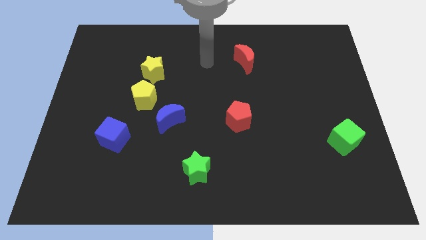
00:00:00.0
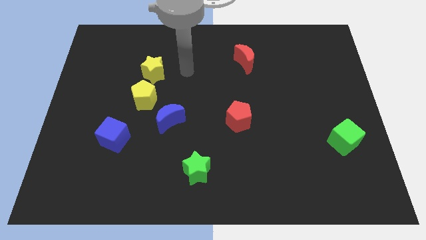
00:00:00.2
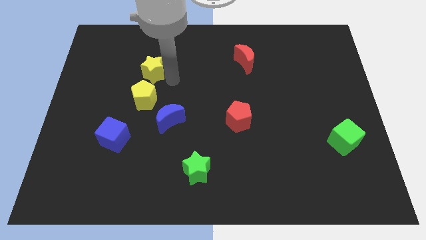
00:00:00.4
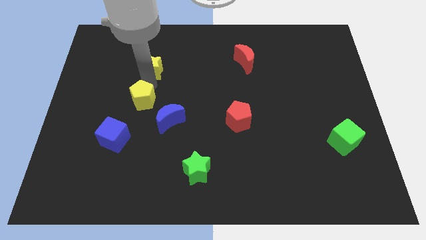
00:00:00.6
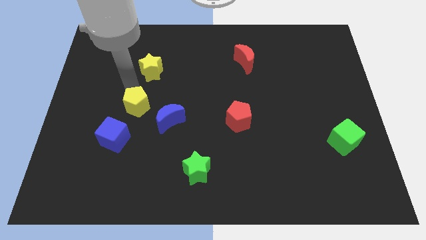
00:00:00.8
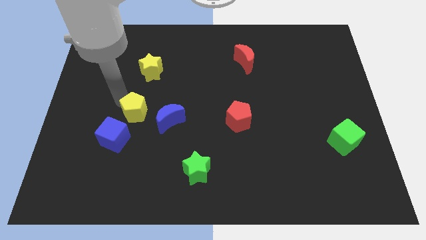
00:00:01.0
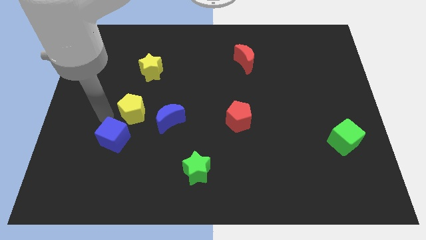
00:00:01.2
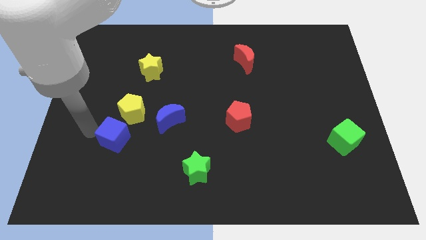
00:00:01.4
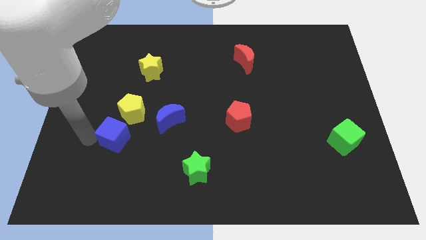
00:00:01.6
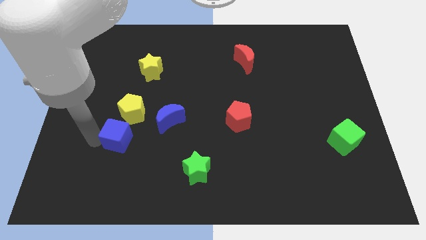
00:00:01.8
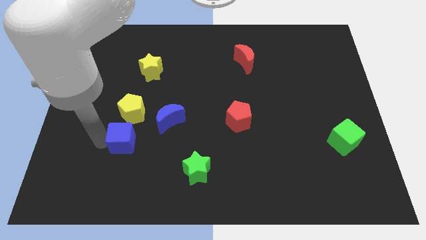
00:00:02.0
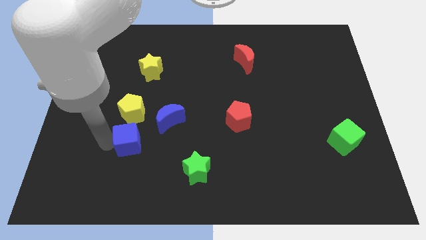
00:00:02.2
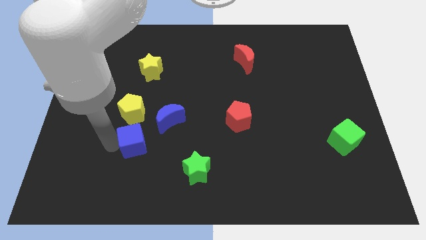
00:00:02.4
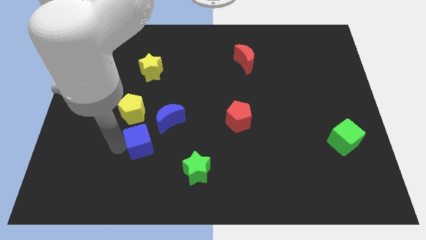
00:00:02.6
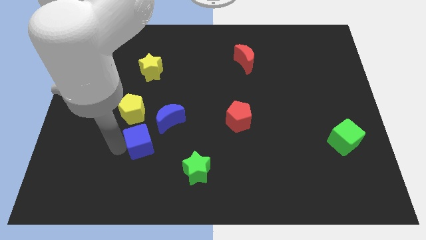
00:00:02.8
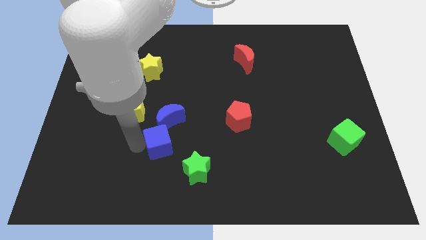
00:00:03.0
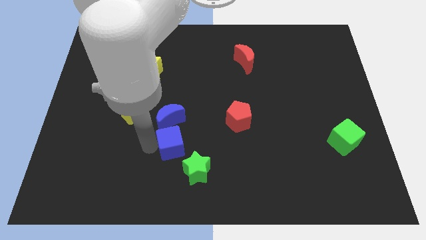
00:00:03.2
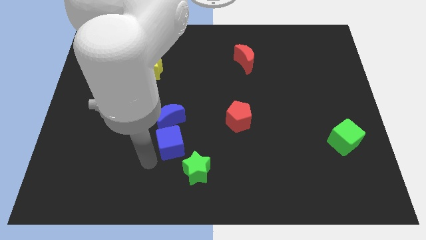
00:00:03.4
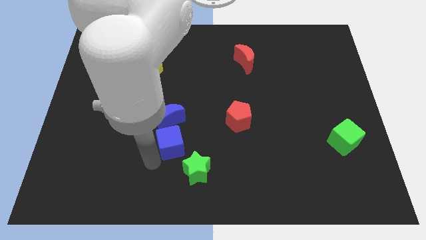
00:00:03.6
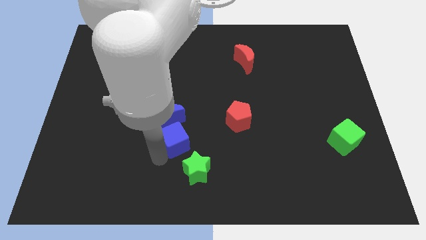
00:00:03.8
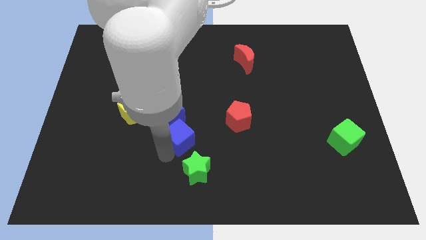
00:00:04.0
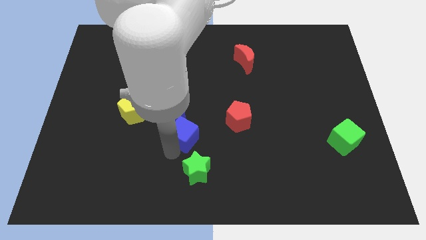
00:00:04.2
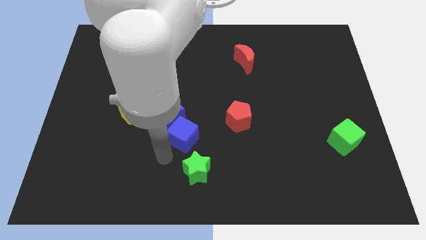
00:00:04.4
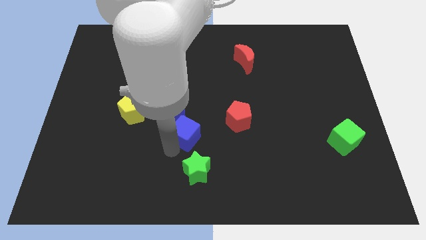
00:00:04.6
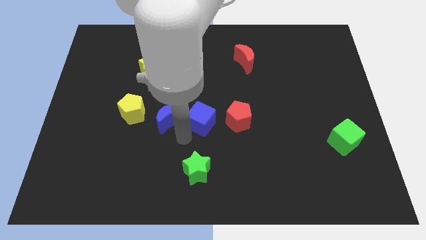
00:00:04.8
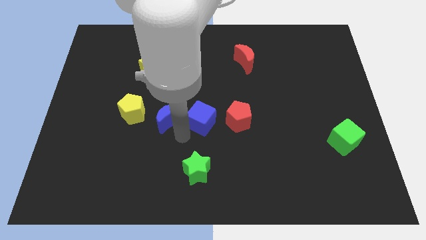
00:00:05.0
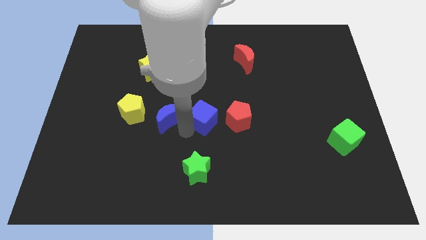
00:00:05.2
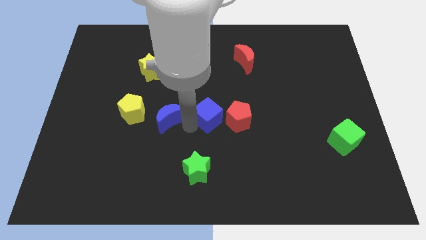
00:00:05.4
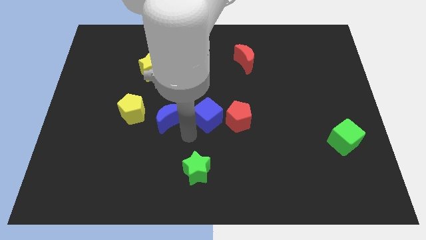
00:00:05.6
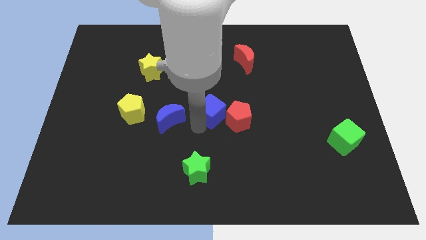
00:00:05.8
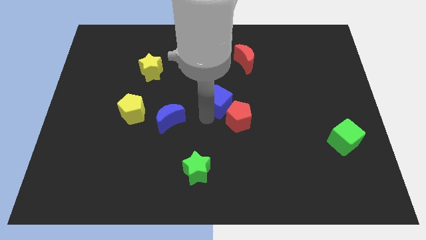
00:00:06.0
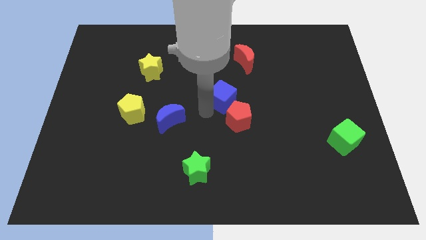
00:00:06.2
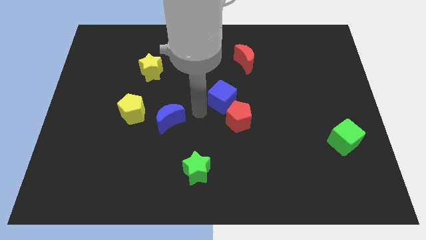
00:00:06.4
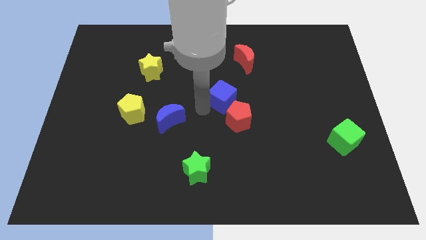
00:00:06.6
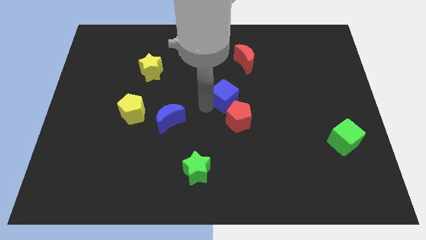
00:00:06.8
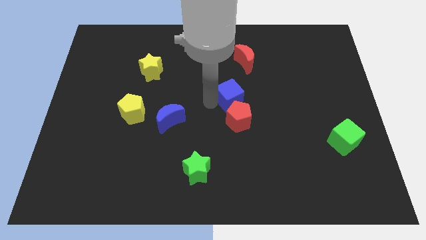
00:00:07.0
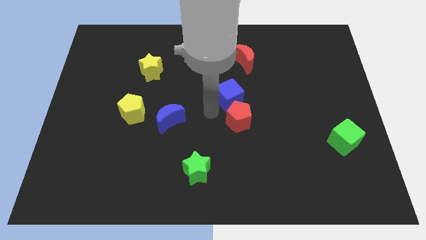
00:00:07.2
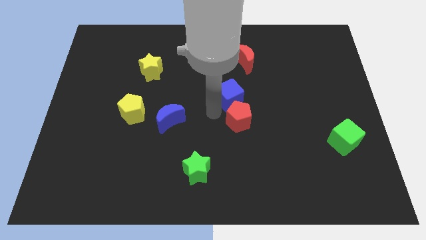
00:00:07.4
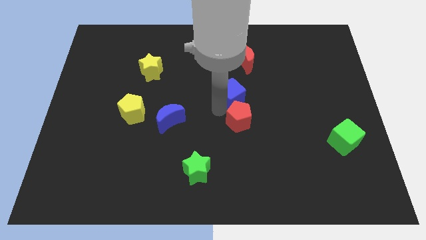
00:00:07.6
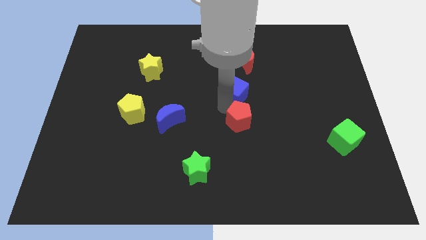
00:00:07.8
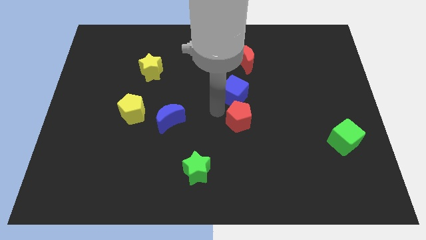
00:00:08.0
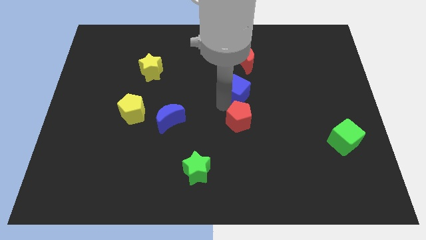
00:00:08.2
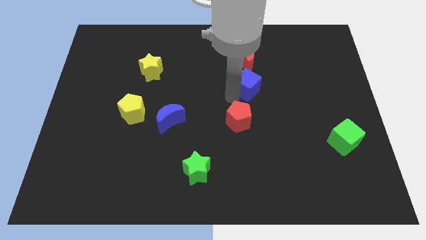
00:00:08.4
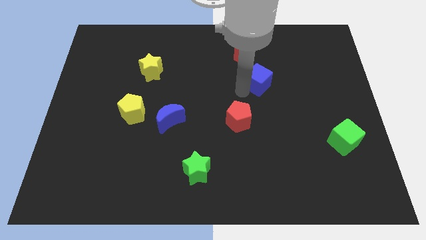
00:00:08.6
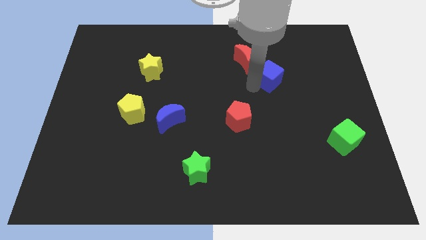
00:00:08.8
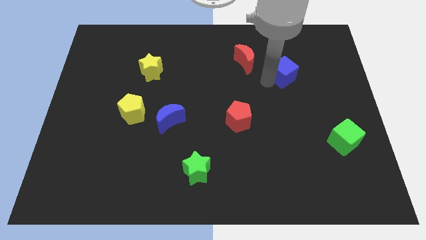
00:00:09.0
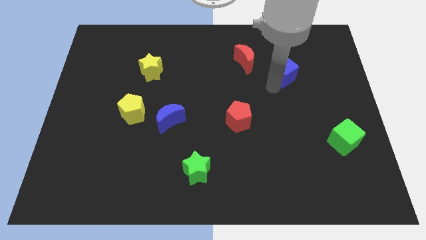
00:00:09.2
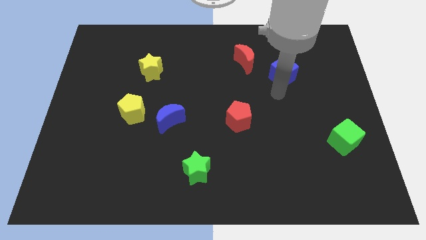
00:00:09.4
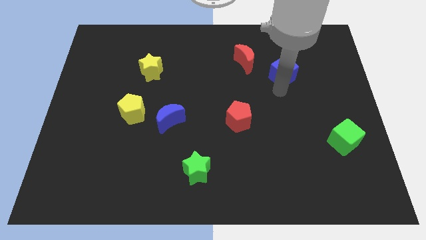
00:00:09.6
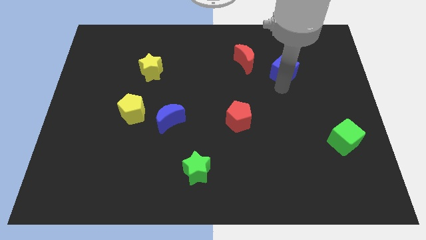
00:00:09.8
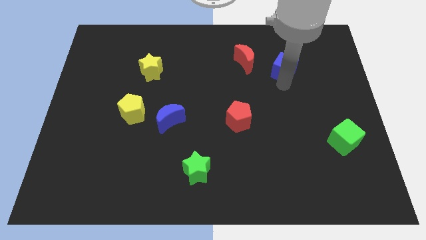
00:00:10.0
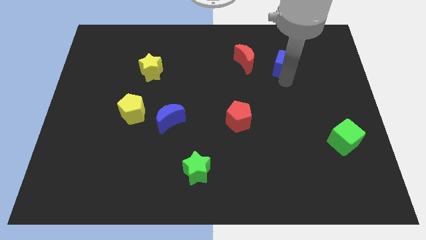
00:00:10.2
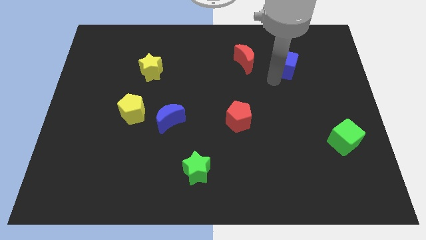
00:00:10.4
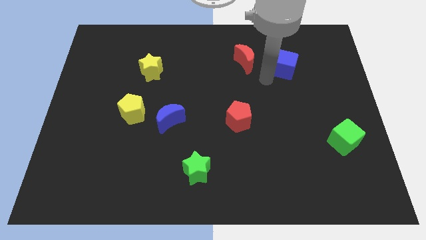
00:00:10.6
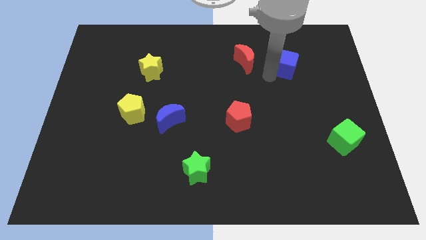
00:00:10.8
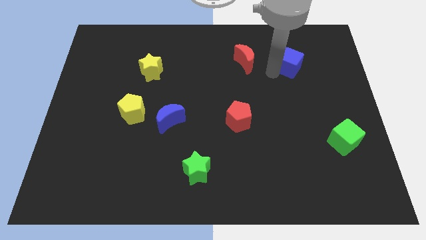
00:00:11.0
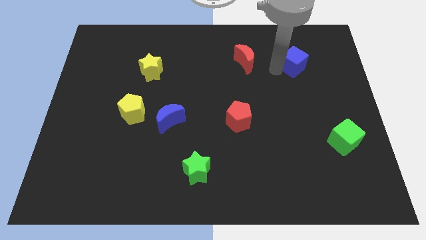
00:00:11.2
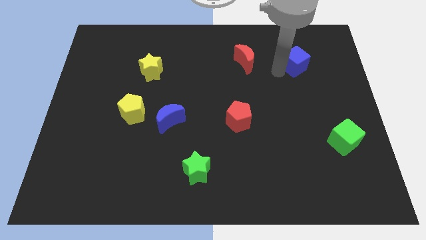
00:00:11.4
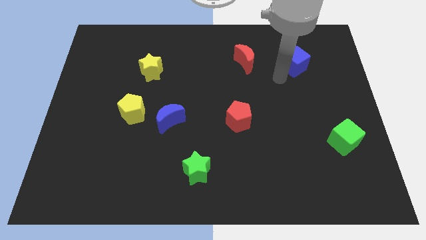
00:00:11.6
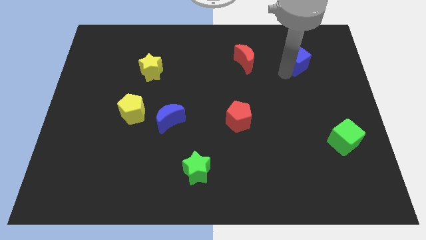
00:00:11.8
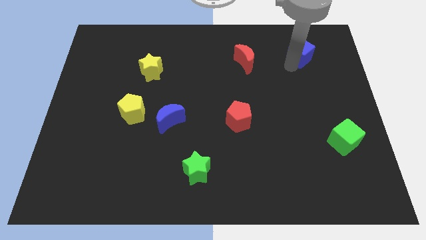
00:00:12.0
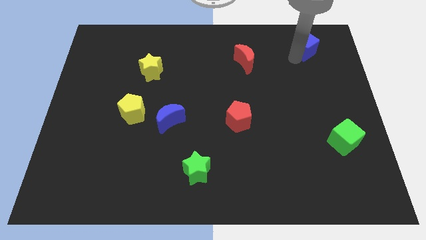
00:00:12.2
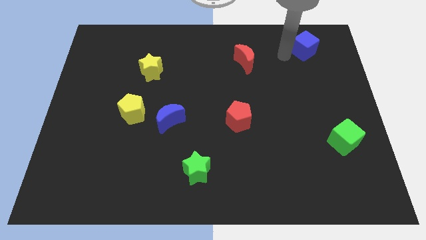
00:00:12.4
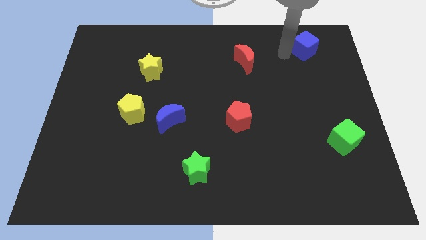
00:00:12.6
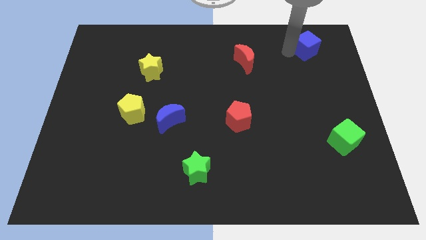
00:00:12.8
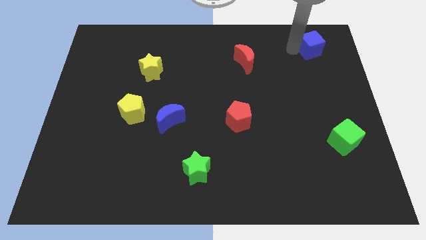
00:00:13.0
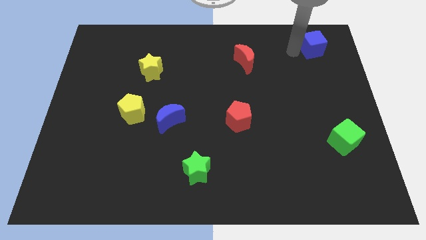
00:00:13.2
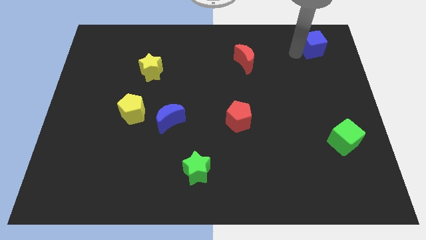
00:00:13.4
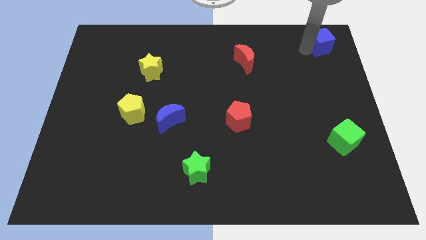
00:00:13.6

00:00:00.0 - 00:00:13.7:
slide the blue cube to the top right of the board
